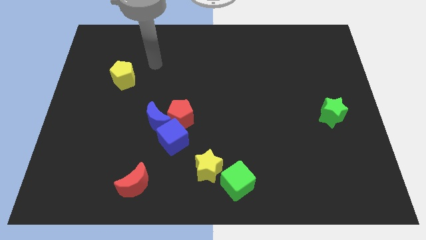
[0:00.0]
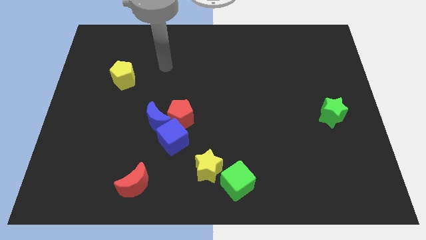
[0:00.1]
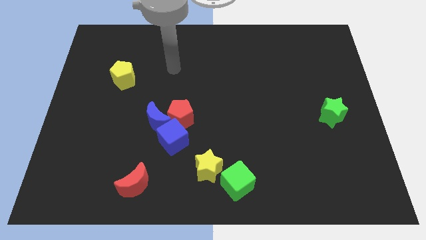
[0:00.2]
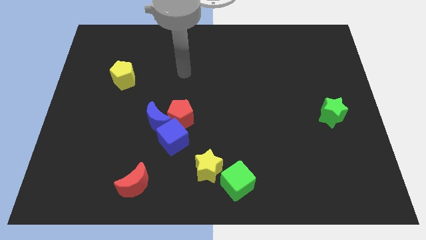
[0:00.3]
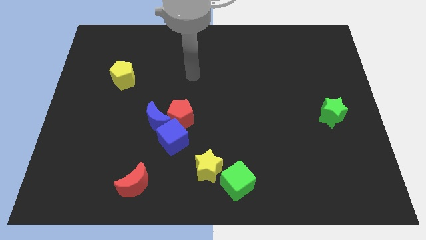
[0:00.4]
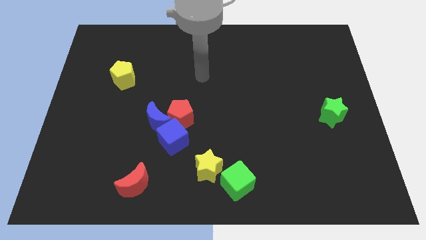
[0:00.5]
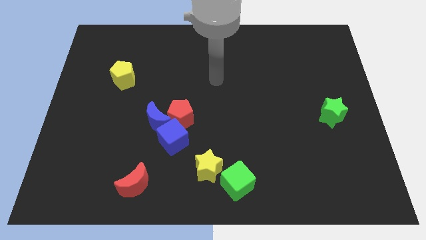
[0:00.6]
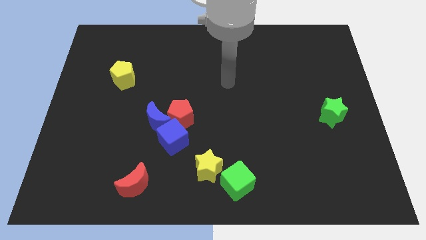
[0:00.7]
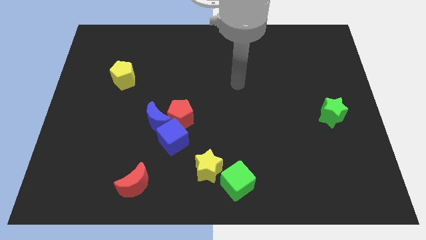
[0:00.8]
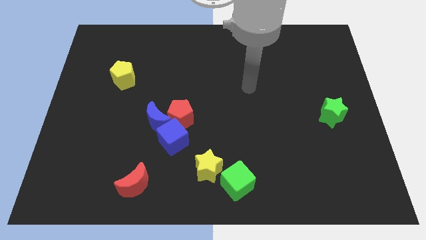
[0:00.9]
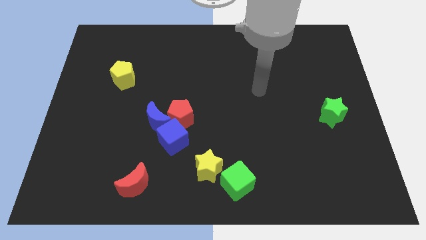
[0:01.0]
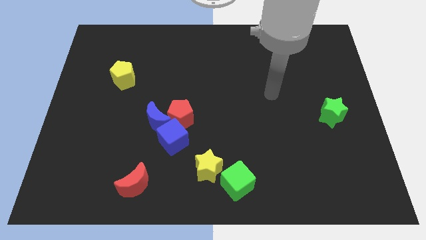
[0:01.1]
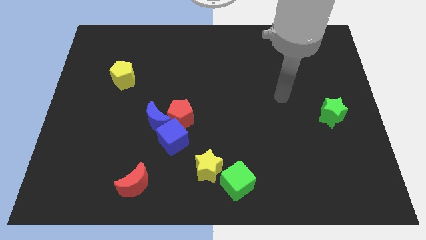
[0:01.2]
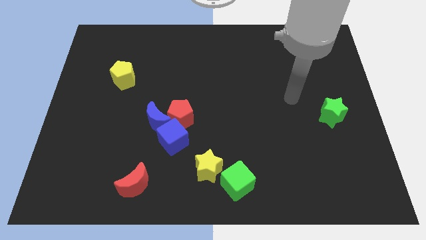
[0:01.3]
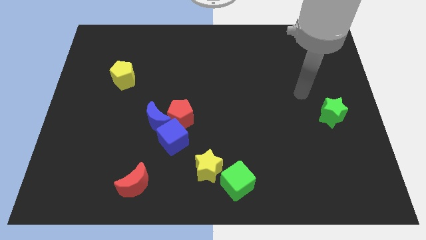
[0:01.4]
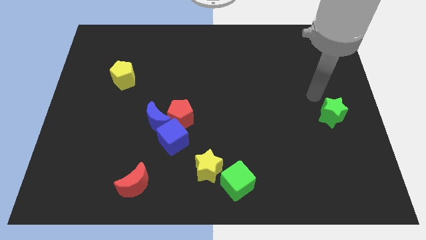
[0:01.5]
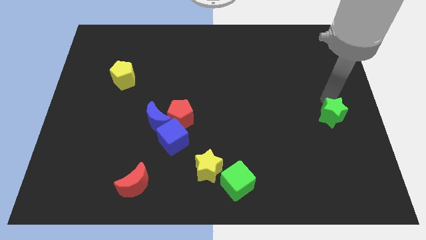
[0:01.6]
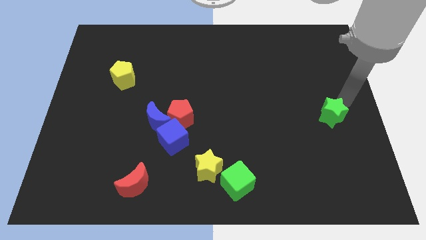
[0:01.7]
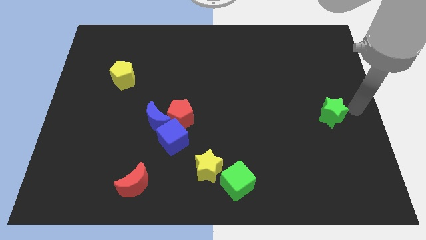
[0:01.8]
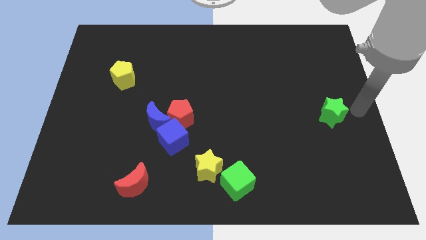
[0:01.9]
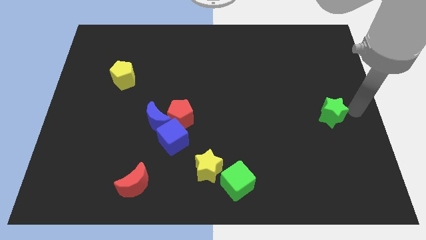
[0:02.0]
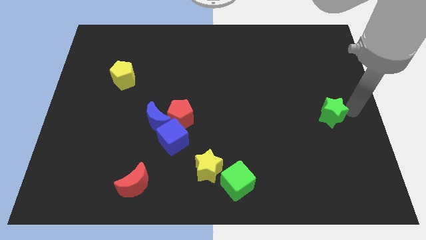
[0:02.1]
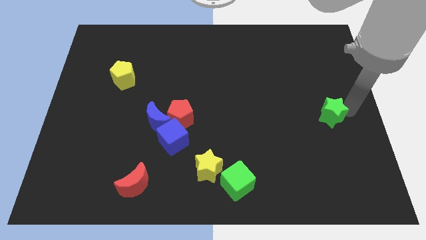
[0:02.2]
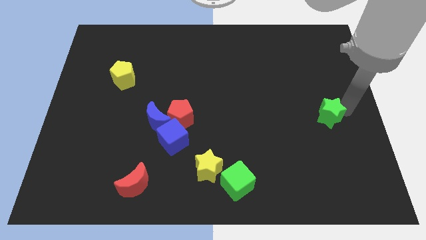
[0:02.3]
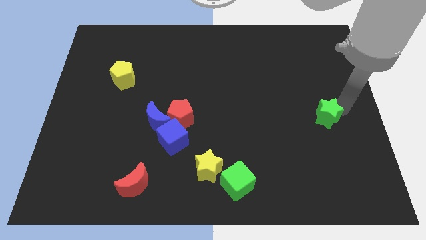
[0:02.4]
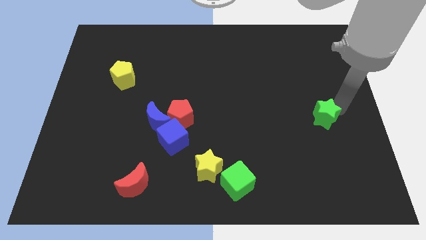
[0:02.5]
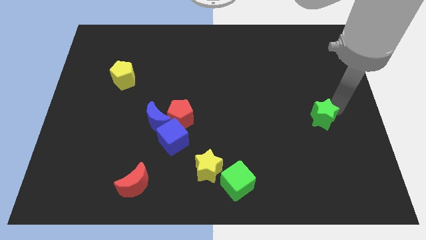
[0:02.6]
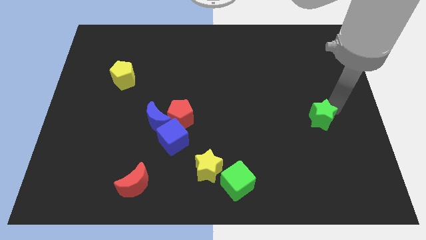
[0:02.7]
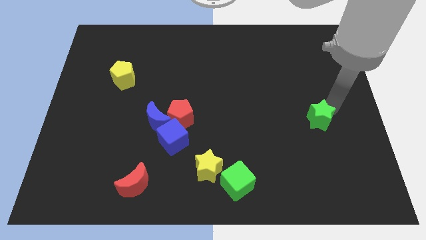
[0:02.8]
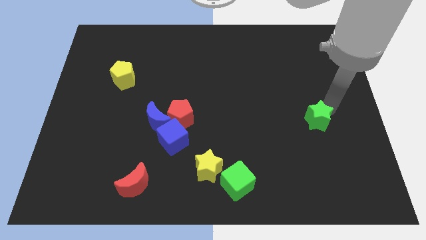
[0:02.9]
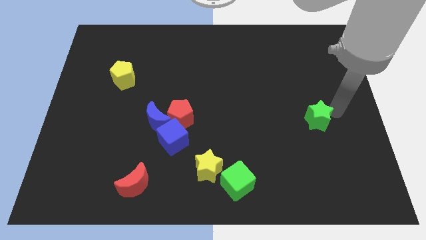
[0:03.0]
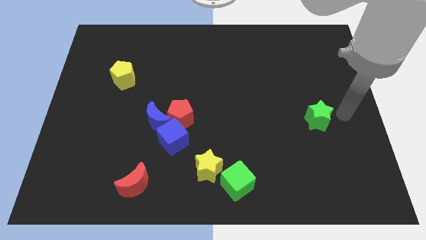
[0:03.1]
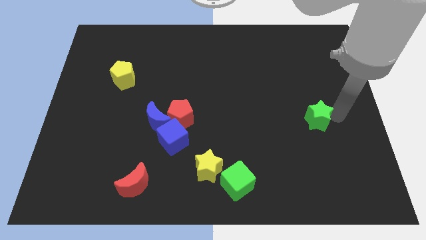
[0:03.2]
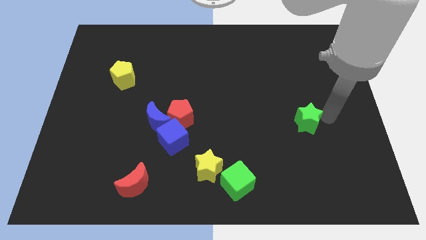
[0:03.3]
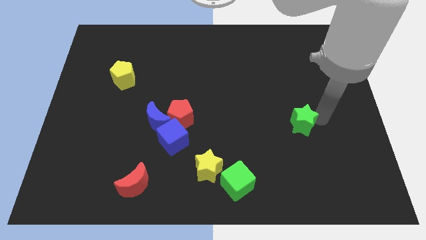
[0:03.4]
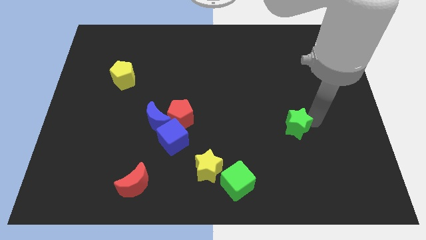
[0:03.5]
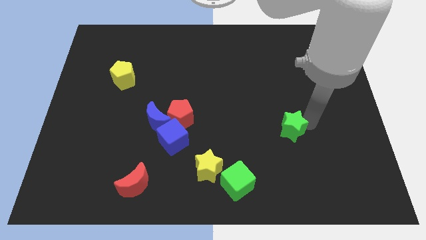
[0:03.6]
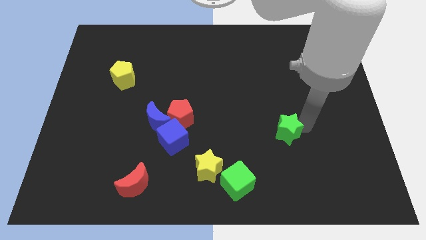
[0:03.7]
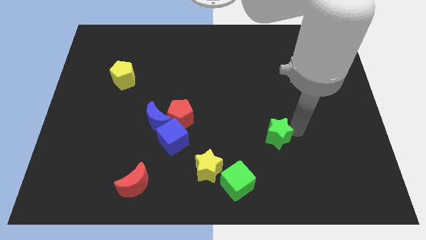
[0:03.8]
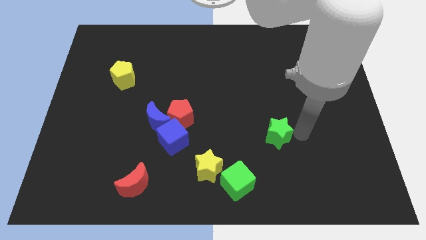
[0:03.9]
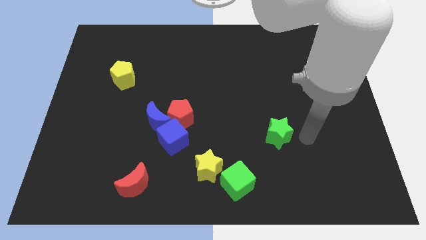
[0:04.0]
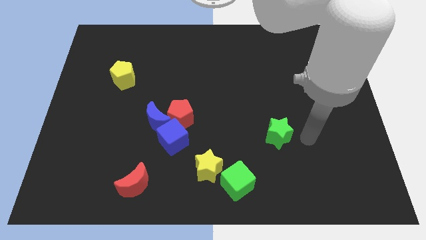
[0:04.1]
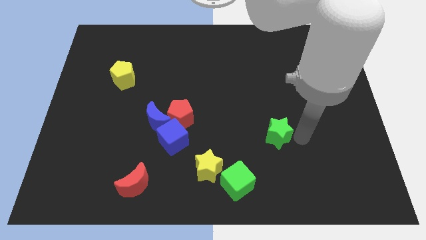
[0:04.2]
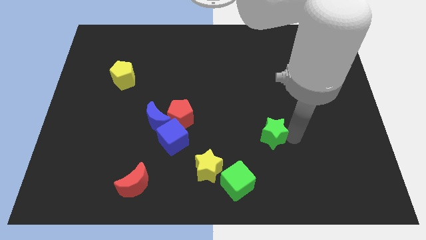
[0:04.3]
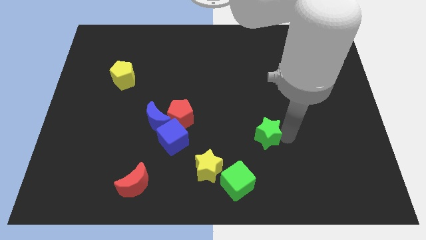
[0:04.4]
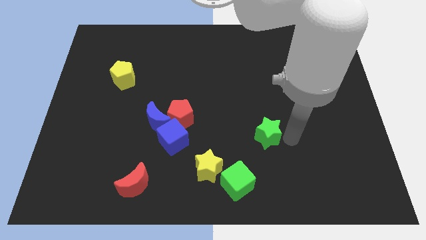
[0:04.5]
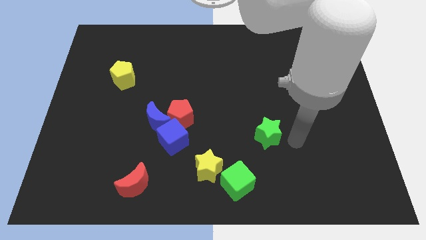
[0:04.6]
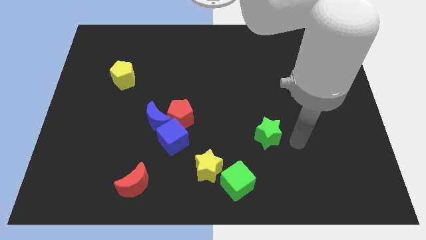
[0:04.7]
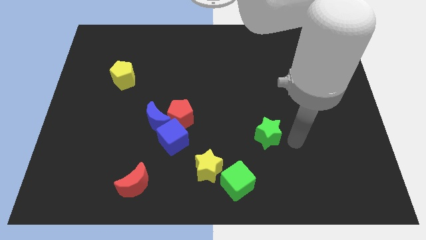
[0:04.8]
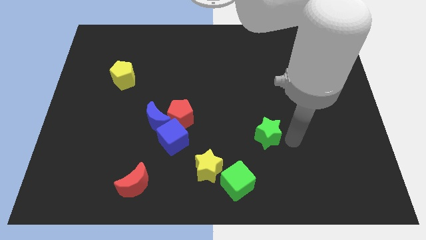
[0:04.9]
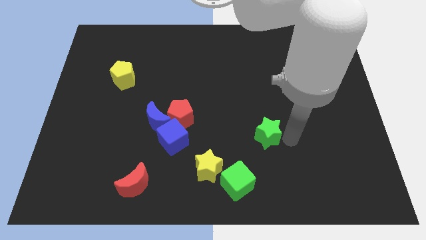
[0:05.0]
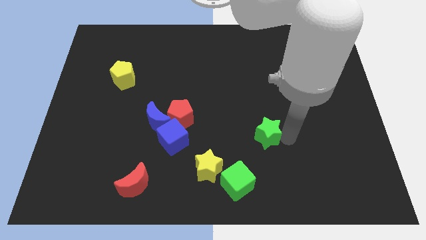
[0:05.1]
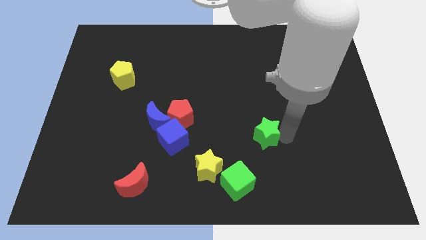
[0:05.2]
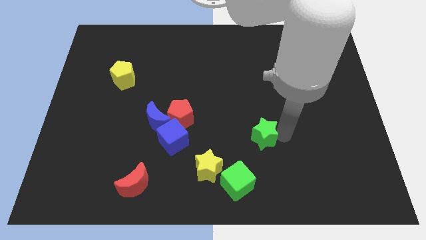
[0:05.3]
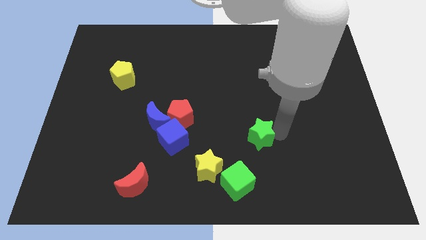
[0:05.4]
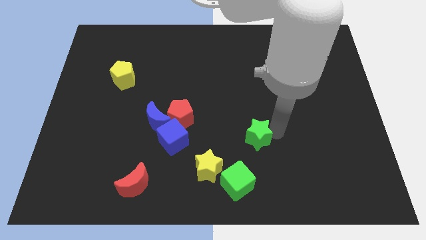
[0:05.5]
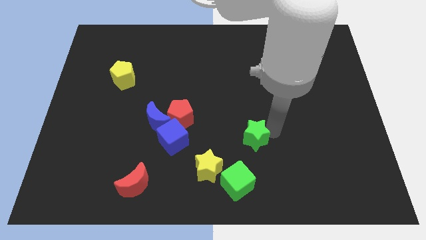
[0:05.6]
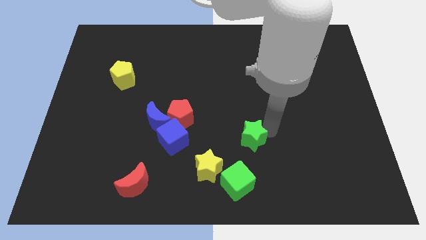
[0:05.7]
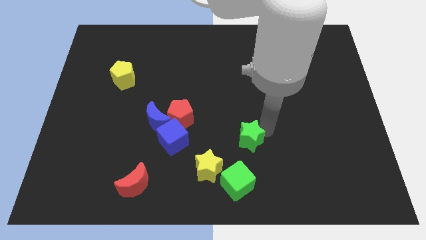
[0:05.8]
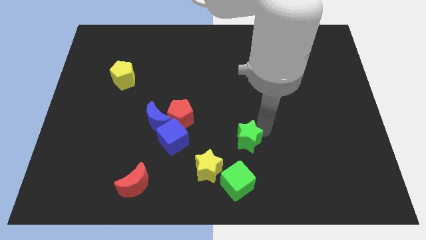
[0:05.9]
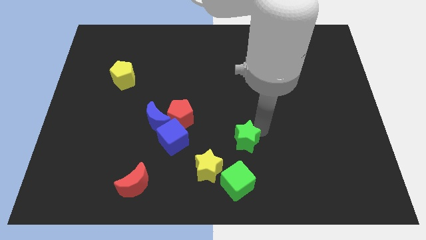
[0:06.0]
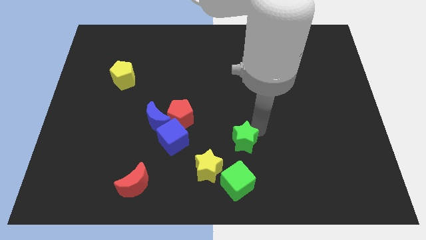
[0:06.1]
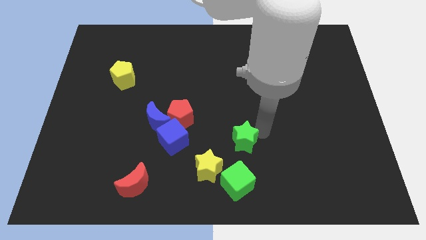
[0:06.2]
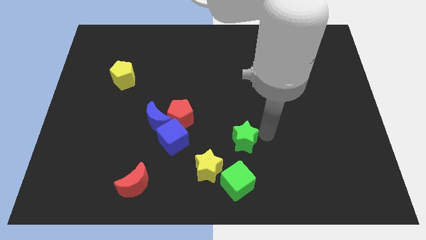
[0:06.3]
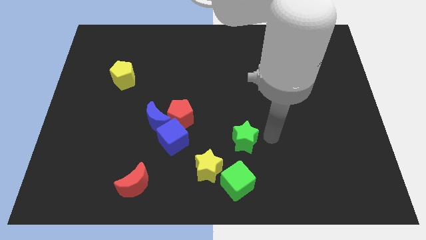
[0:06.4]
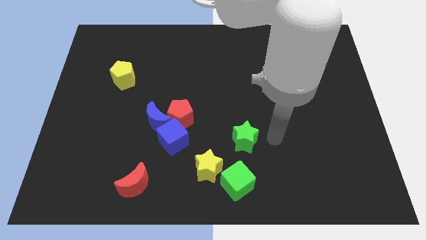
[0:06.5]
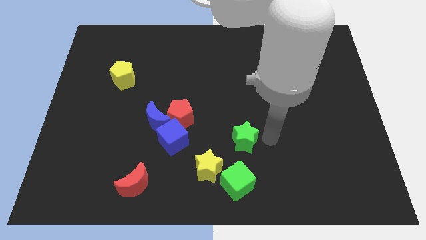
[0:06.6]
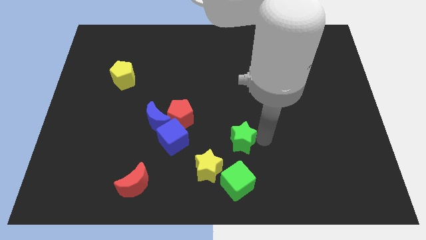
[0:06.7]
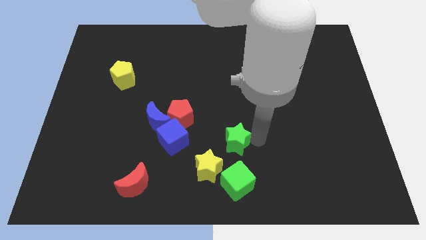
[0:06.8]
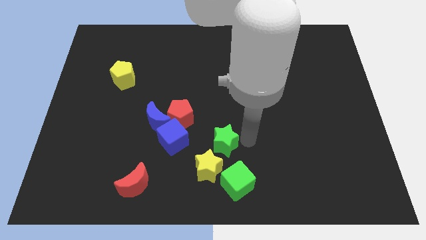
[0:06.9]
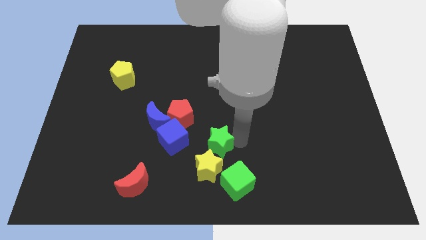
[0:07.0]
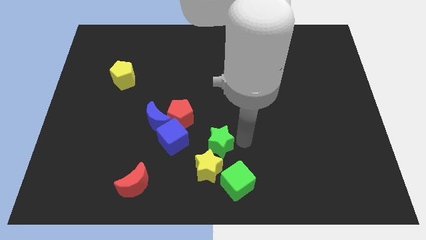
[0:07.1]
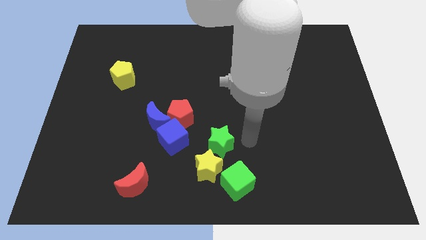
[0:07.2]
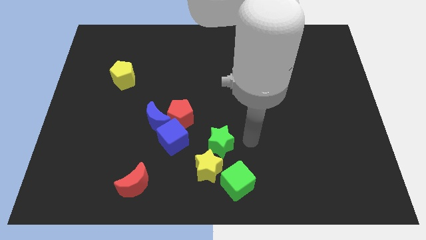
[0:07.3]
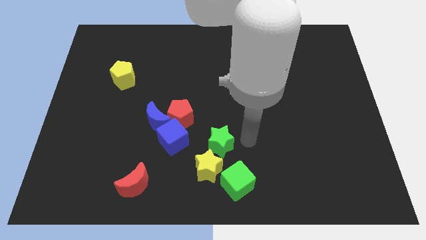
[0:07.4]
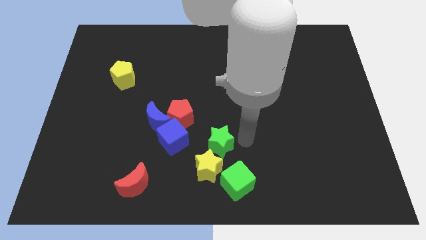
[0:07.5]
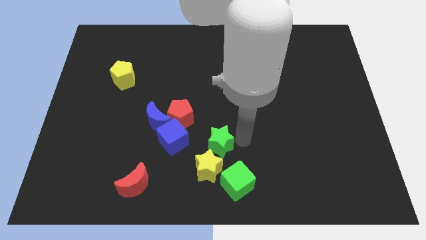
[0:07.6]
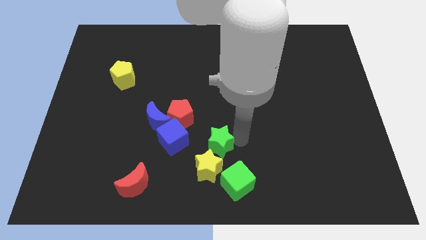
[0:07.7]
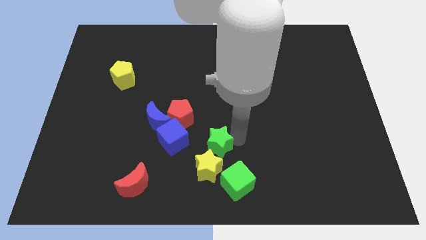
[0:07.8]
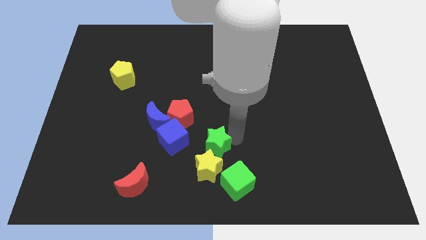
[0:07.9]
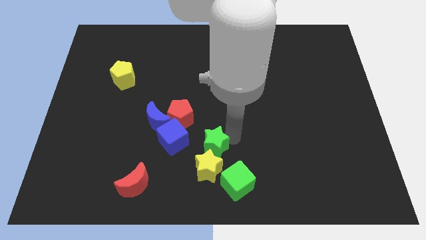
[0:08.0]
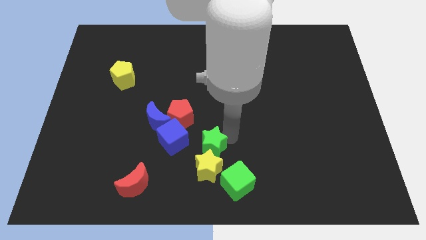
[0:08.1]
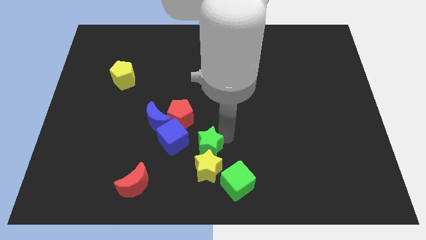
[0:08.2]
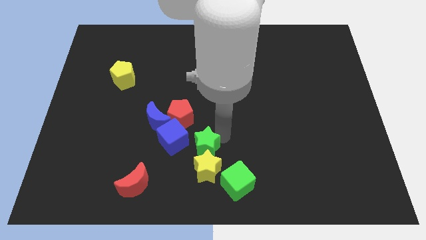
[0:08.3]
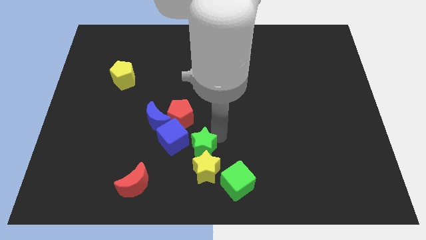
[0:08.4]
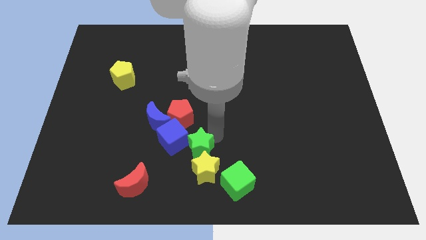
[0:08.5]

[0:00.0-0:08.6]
push the green star below the red pentagon
